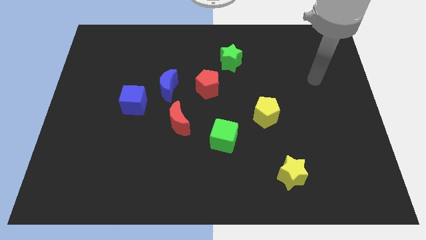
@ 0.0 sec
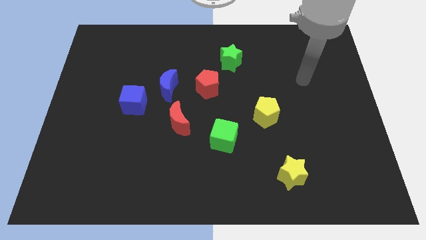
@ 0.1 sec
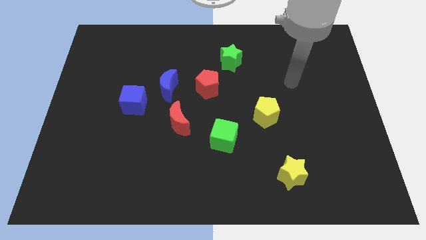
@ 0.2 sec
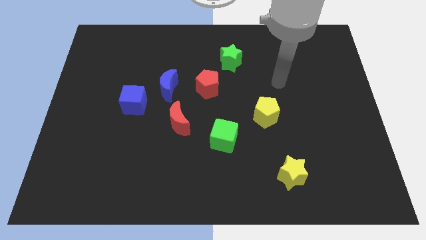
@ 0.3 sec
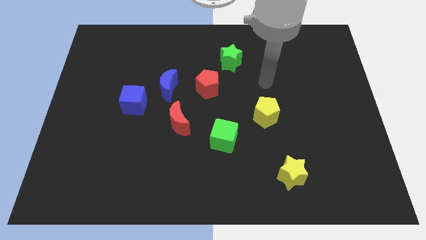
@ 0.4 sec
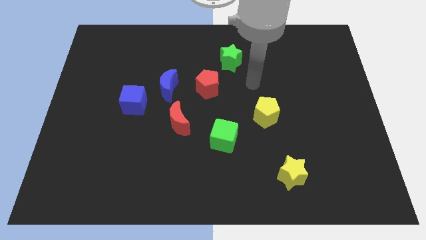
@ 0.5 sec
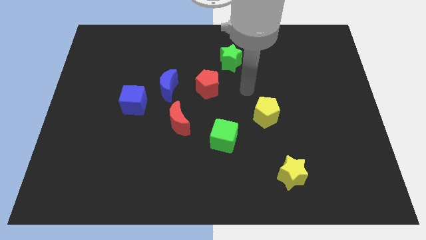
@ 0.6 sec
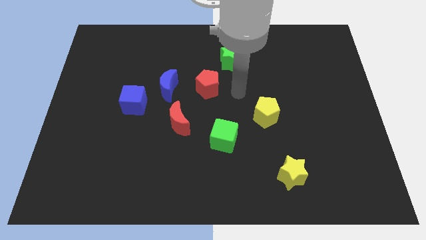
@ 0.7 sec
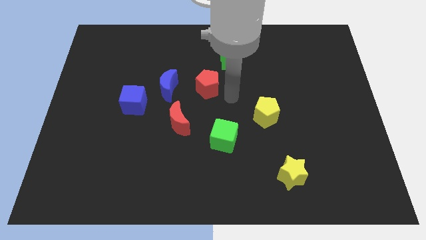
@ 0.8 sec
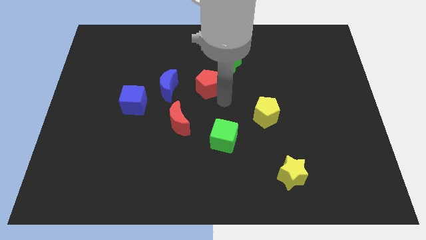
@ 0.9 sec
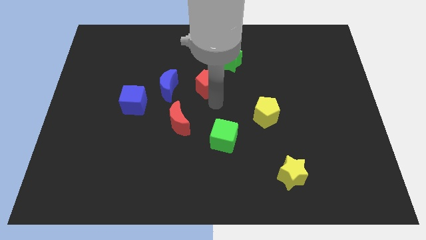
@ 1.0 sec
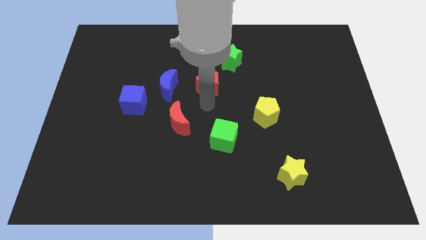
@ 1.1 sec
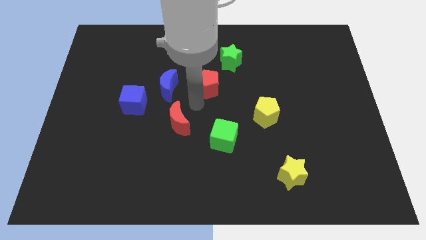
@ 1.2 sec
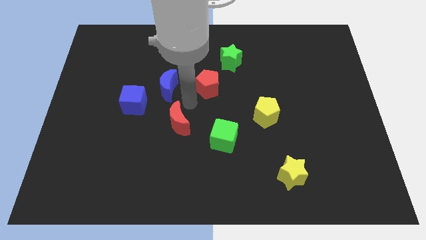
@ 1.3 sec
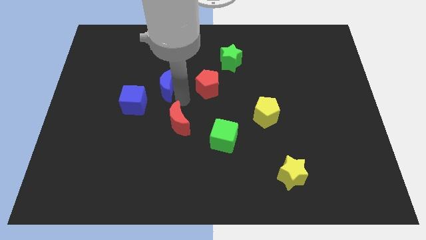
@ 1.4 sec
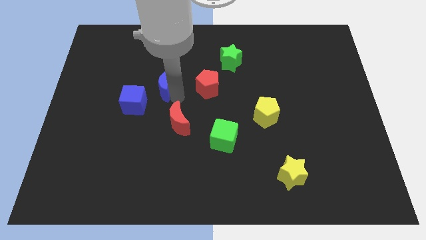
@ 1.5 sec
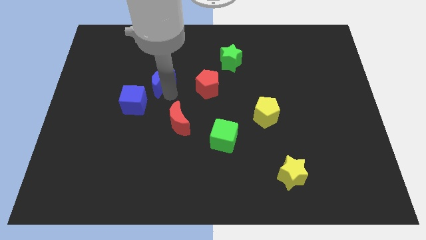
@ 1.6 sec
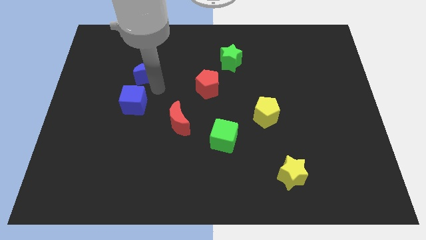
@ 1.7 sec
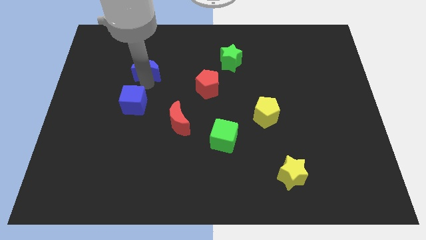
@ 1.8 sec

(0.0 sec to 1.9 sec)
pull the blue cube apart from the blue moon

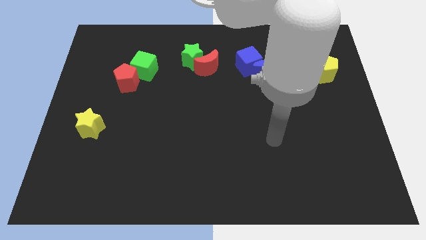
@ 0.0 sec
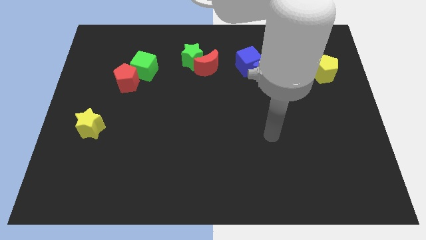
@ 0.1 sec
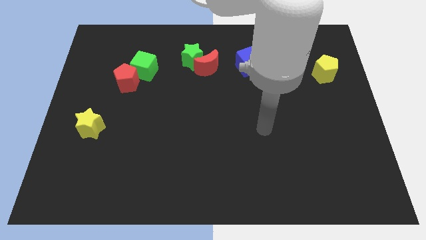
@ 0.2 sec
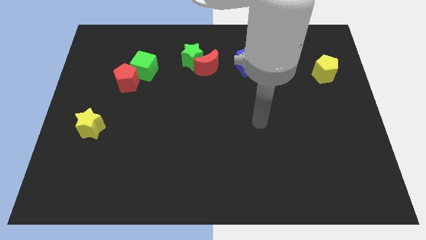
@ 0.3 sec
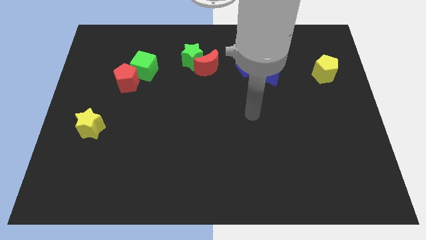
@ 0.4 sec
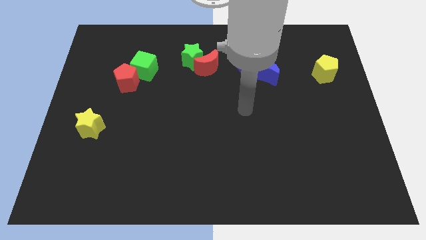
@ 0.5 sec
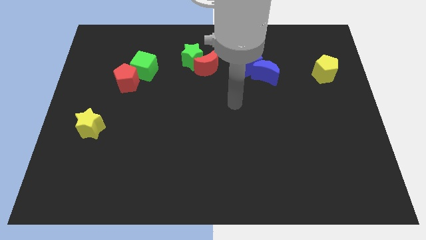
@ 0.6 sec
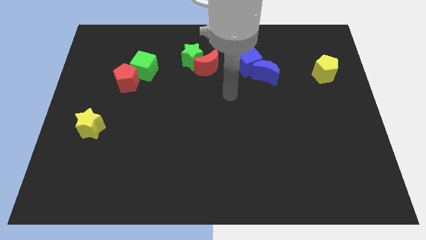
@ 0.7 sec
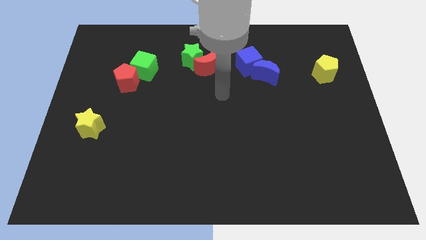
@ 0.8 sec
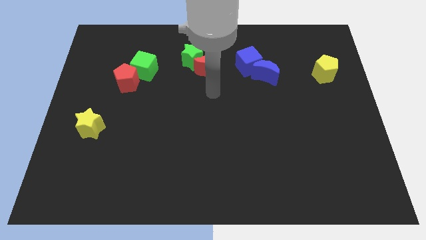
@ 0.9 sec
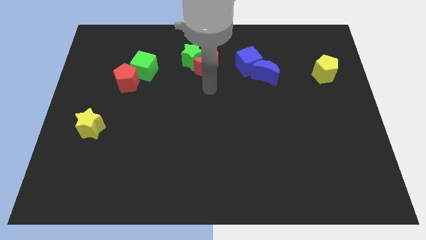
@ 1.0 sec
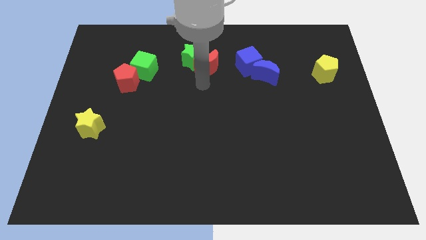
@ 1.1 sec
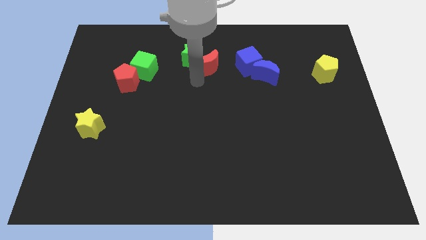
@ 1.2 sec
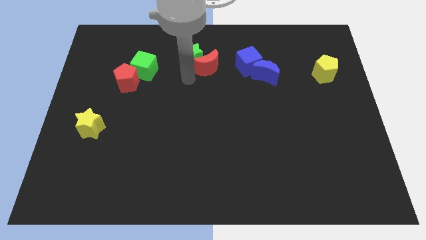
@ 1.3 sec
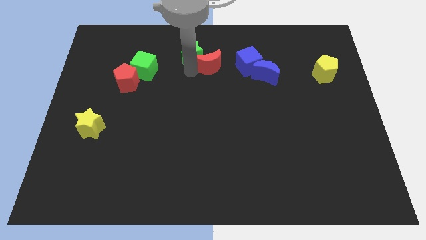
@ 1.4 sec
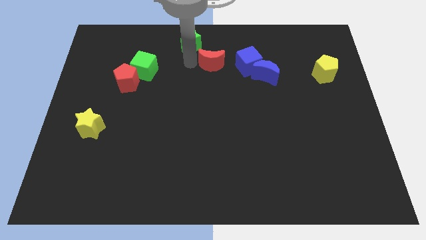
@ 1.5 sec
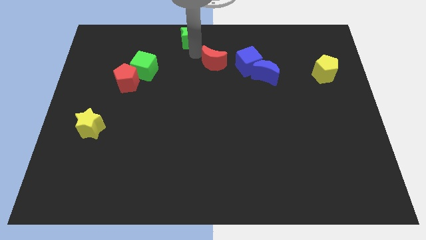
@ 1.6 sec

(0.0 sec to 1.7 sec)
separate the red moon from the green star

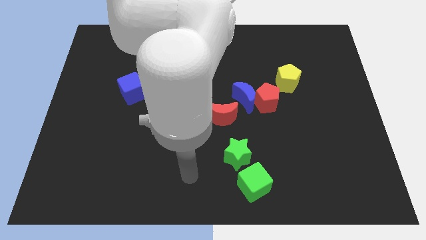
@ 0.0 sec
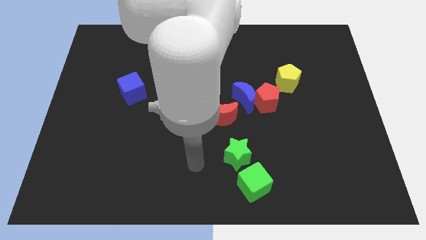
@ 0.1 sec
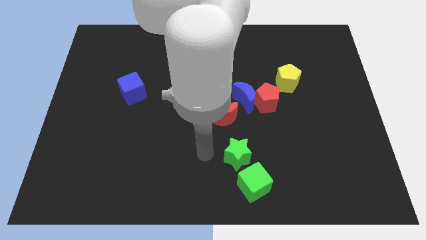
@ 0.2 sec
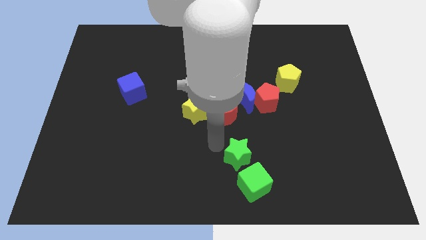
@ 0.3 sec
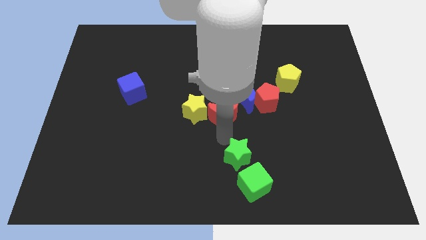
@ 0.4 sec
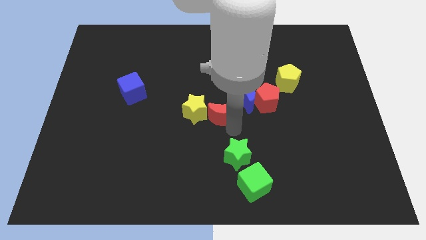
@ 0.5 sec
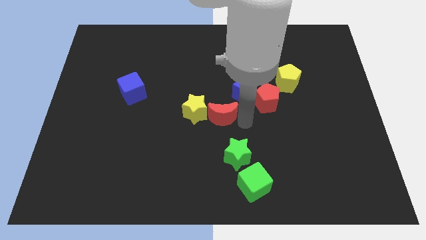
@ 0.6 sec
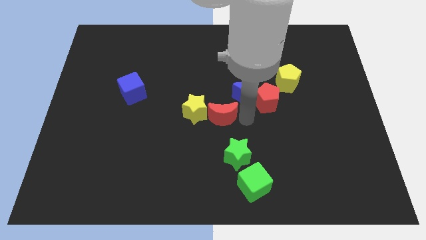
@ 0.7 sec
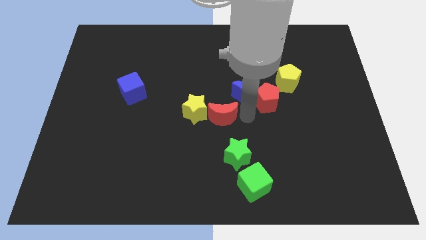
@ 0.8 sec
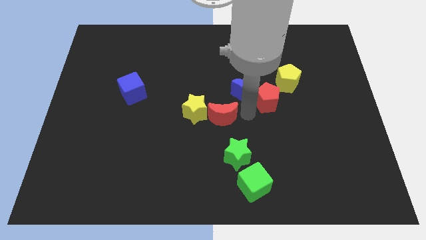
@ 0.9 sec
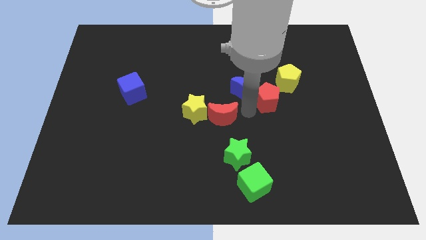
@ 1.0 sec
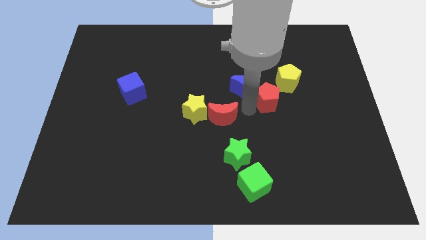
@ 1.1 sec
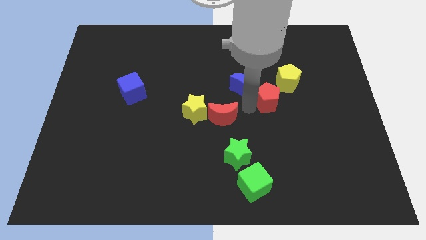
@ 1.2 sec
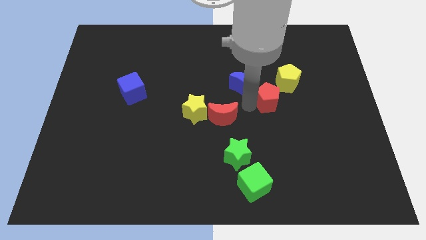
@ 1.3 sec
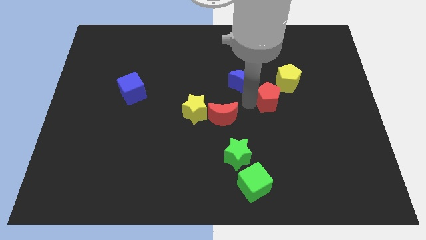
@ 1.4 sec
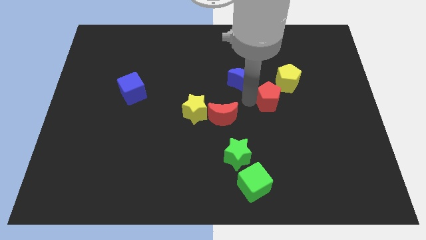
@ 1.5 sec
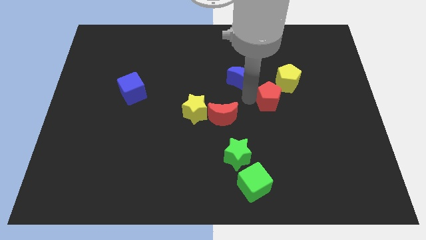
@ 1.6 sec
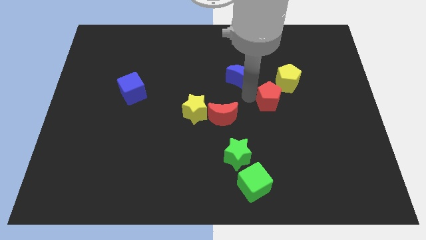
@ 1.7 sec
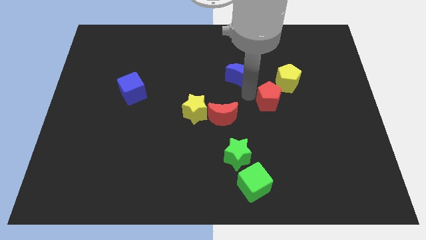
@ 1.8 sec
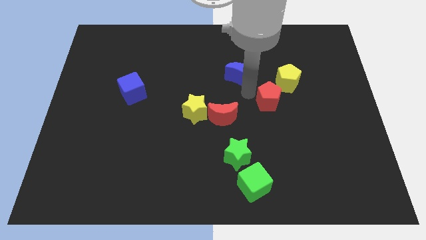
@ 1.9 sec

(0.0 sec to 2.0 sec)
move the blue moon away from the red pentagon and red moon

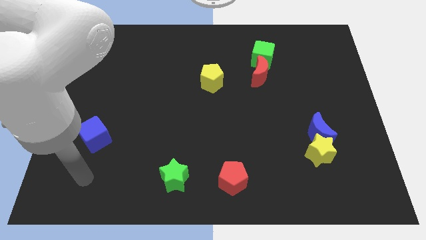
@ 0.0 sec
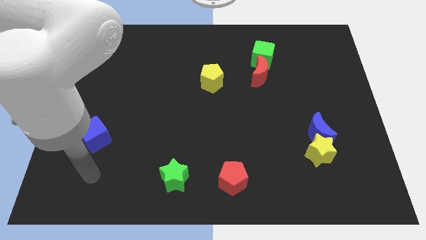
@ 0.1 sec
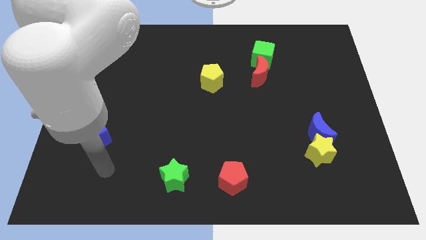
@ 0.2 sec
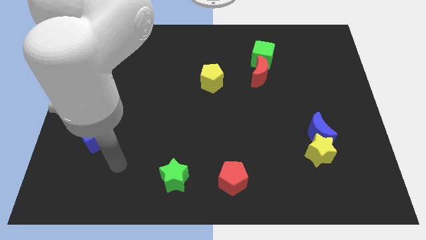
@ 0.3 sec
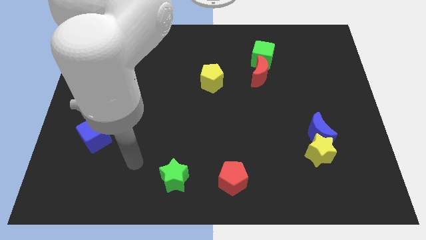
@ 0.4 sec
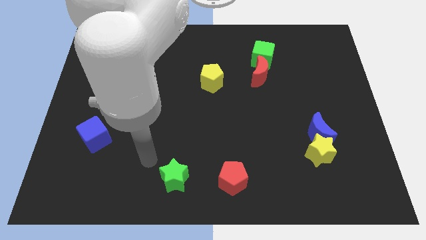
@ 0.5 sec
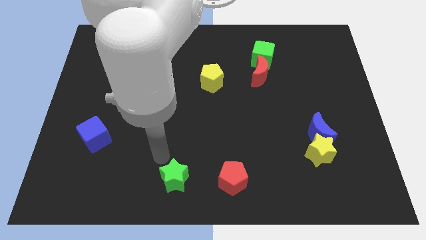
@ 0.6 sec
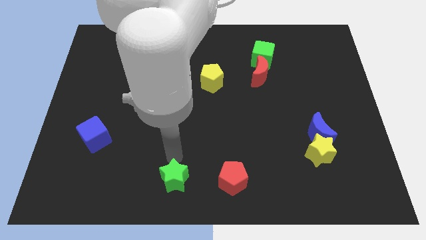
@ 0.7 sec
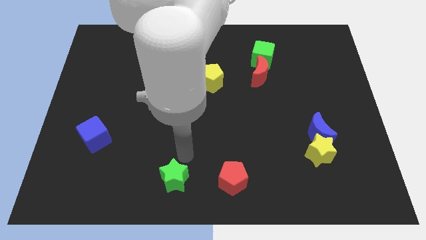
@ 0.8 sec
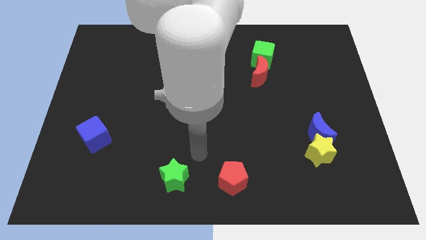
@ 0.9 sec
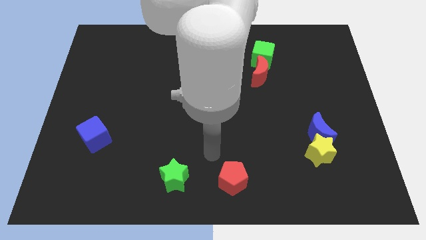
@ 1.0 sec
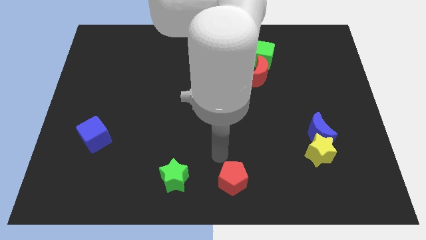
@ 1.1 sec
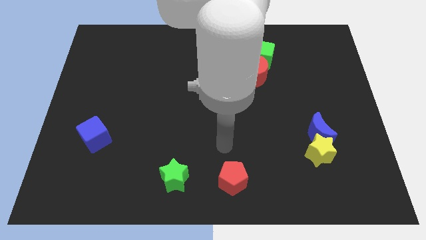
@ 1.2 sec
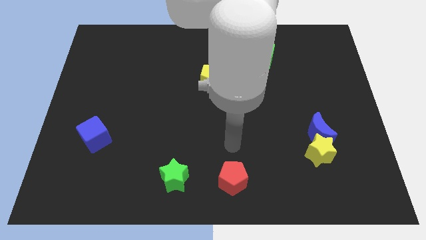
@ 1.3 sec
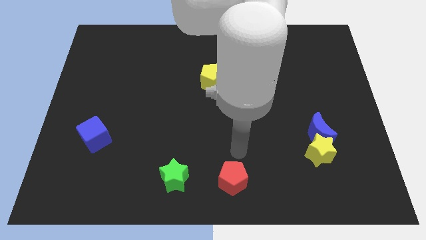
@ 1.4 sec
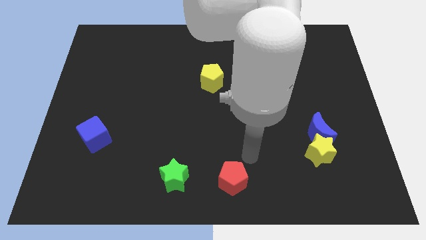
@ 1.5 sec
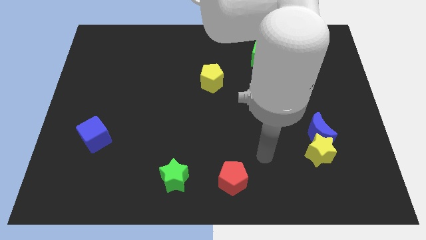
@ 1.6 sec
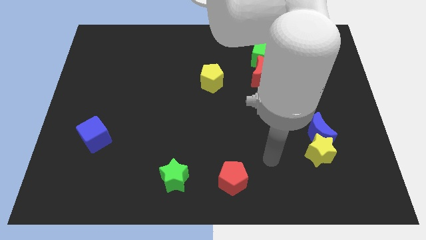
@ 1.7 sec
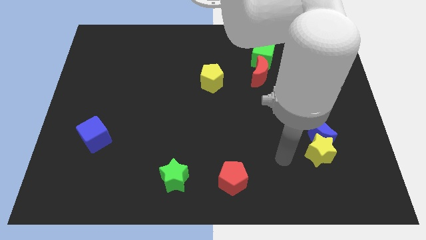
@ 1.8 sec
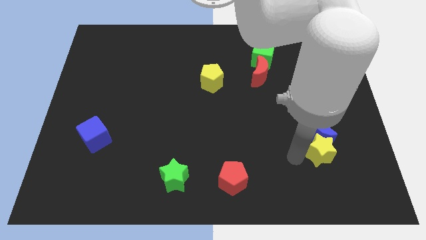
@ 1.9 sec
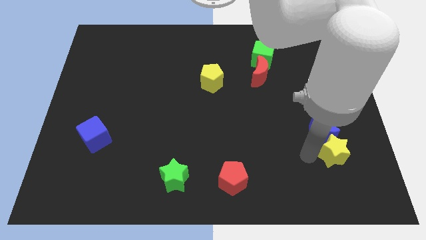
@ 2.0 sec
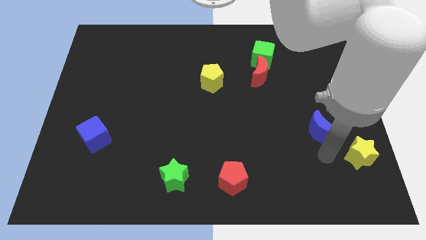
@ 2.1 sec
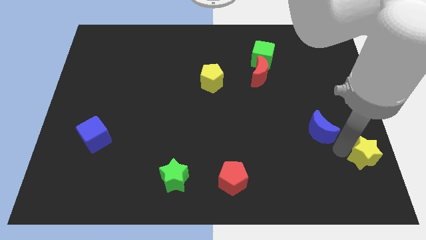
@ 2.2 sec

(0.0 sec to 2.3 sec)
separate the blue moon from the yellow star

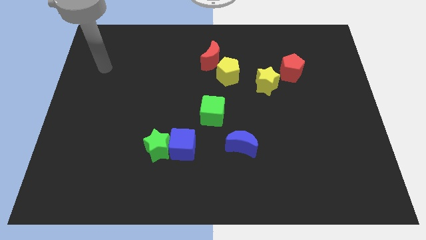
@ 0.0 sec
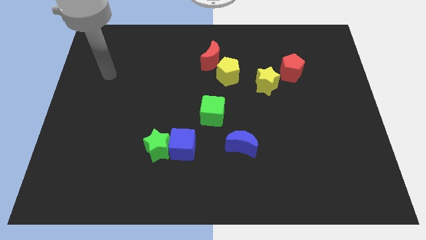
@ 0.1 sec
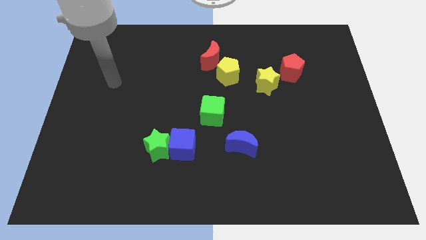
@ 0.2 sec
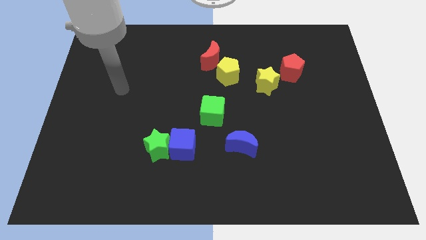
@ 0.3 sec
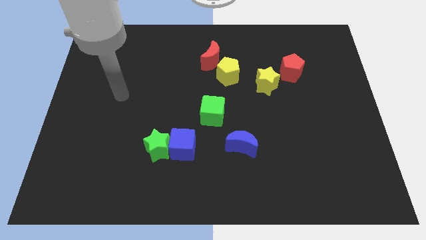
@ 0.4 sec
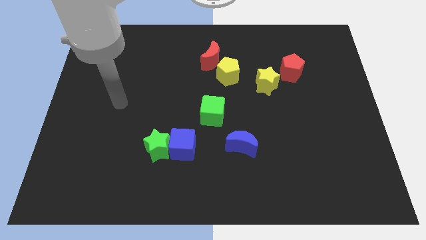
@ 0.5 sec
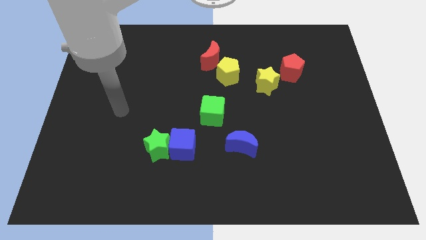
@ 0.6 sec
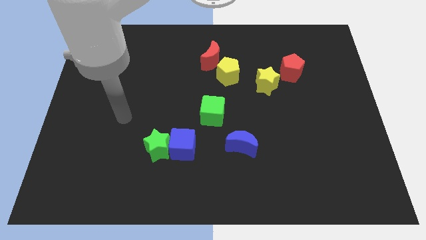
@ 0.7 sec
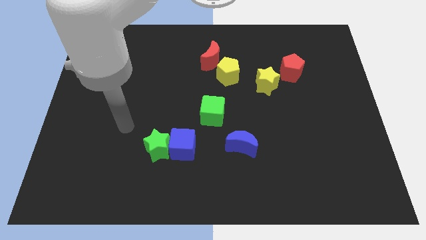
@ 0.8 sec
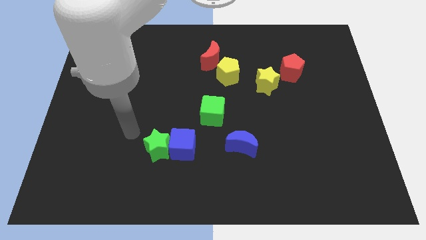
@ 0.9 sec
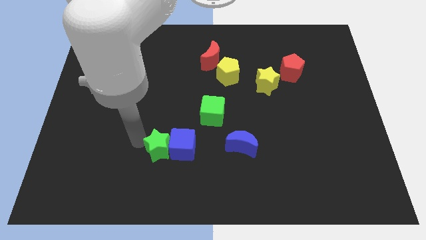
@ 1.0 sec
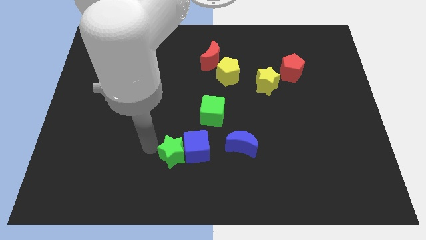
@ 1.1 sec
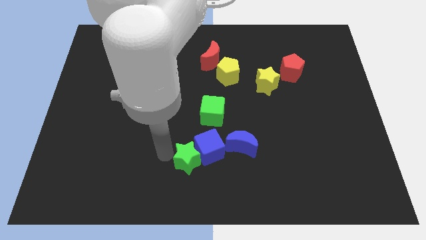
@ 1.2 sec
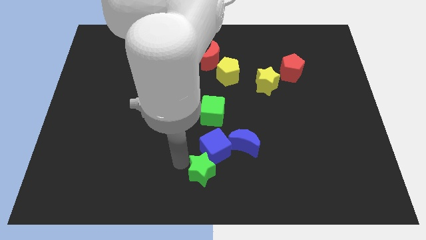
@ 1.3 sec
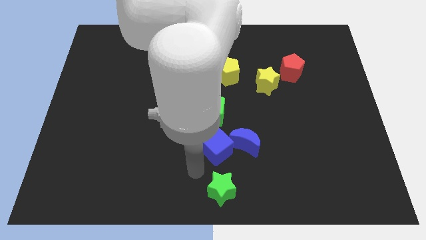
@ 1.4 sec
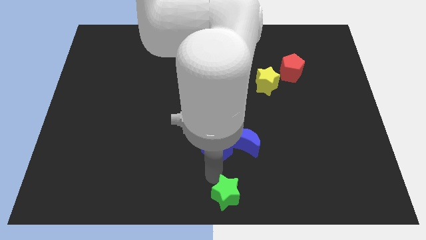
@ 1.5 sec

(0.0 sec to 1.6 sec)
separate the blue cube from the green star
